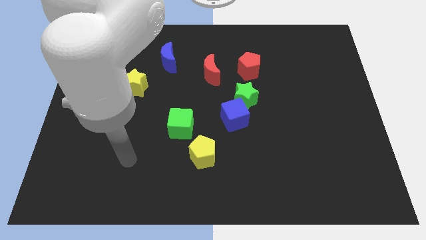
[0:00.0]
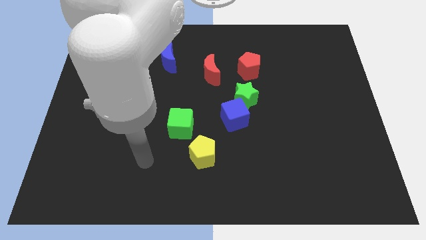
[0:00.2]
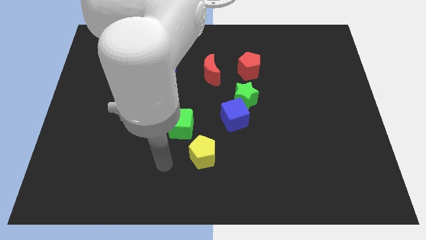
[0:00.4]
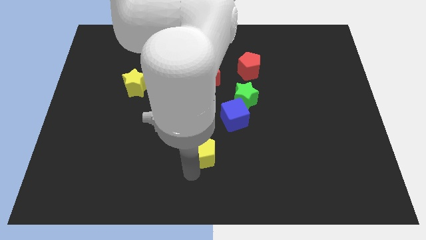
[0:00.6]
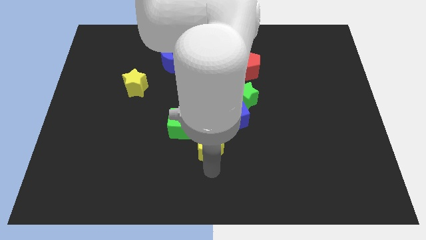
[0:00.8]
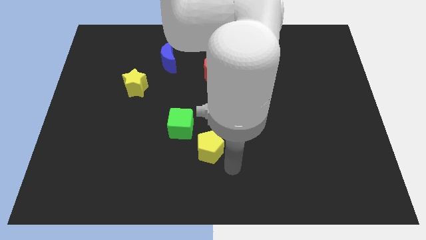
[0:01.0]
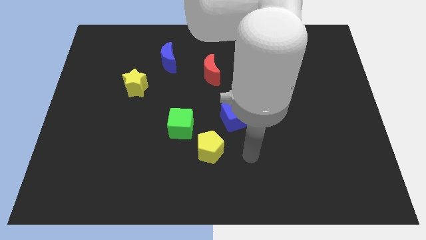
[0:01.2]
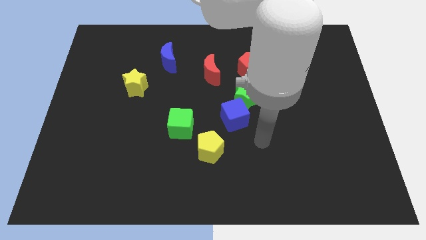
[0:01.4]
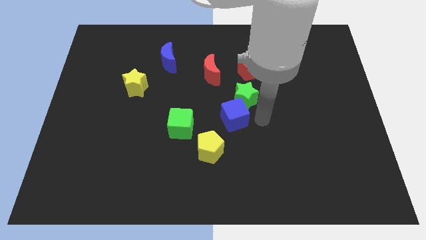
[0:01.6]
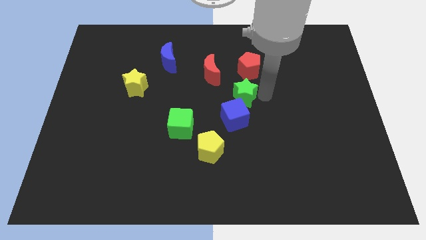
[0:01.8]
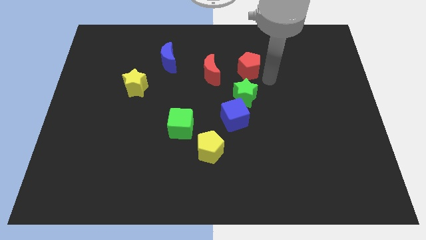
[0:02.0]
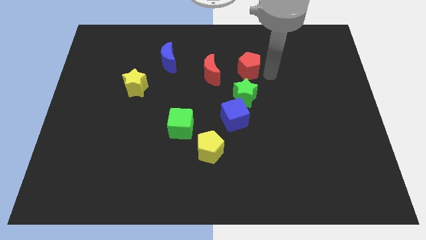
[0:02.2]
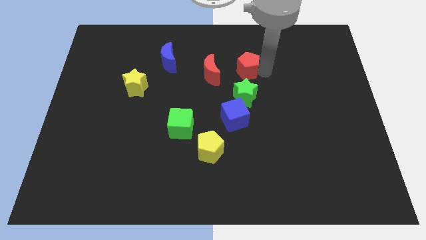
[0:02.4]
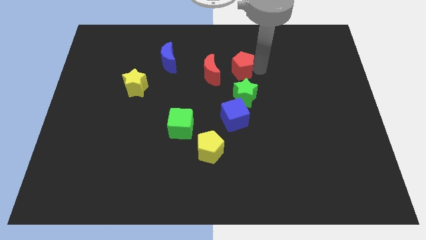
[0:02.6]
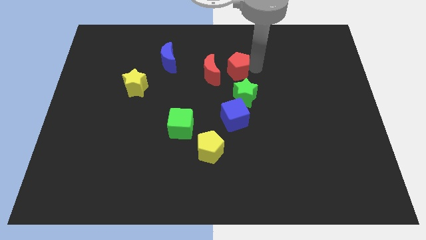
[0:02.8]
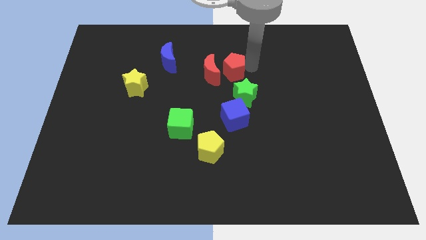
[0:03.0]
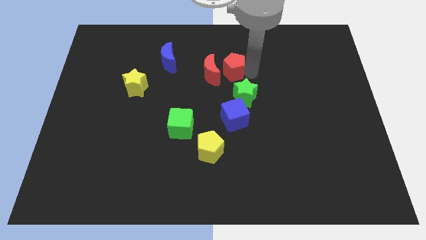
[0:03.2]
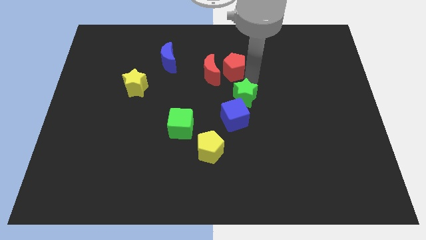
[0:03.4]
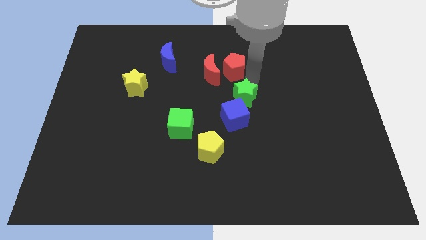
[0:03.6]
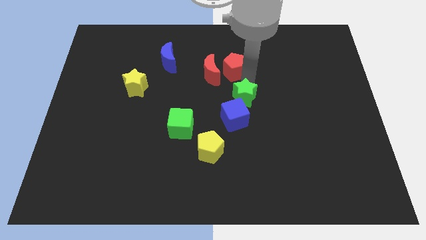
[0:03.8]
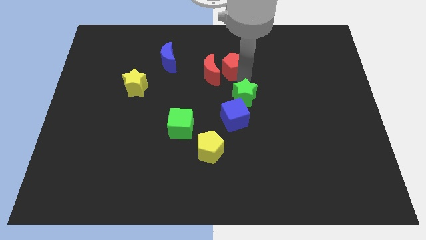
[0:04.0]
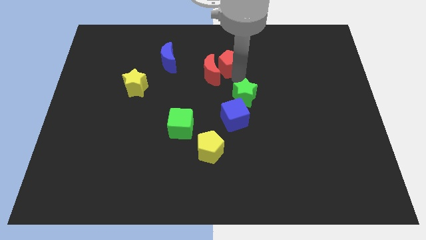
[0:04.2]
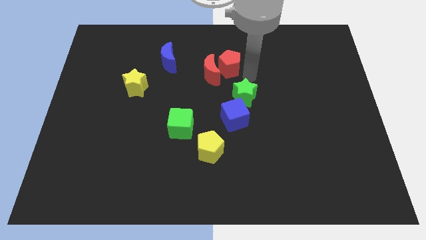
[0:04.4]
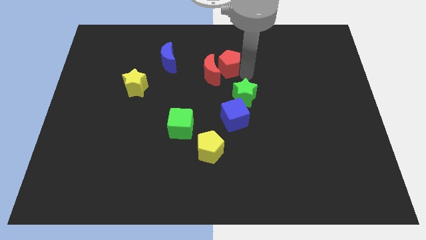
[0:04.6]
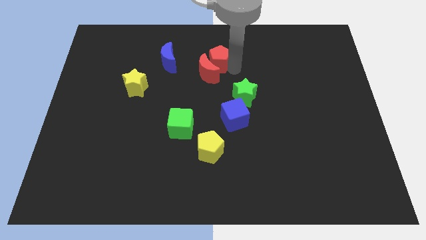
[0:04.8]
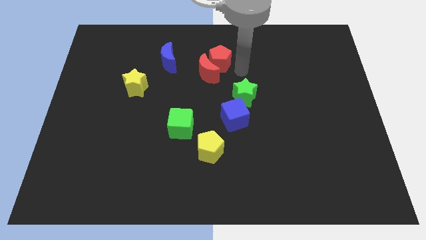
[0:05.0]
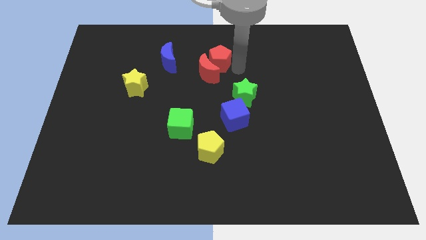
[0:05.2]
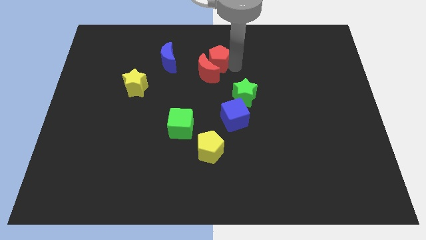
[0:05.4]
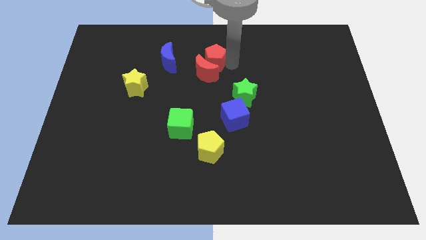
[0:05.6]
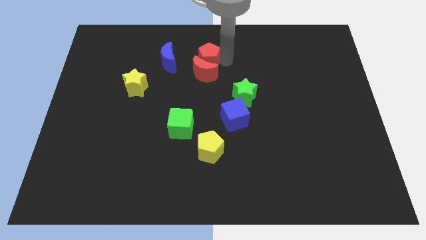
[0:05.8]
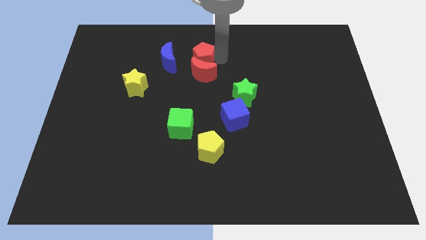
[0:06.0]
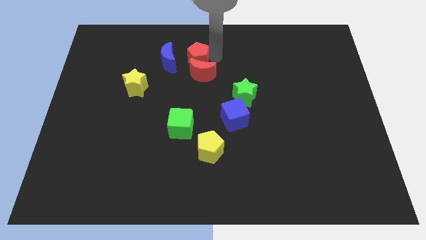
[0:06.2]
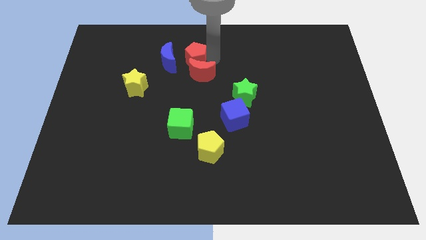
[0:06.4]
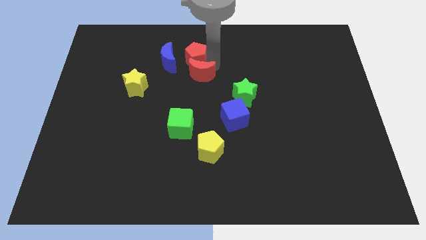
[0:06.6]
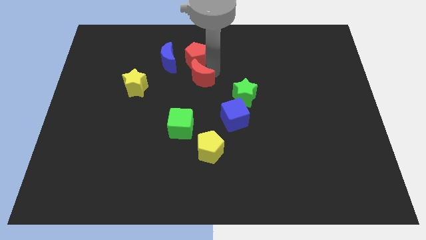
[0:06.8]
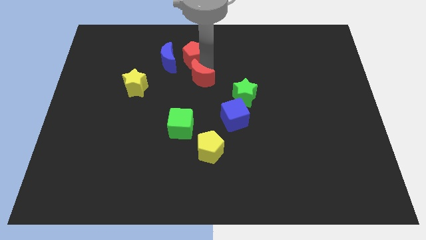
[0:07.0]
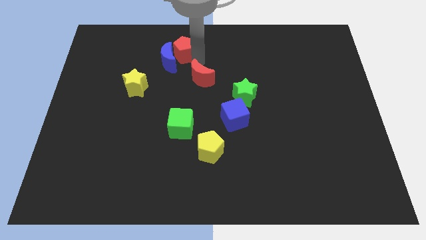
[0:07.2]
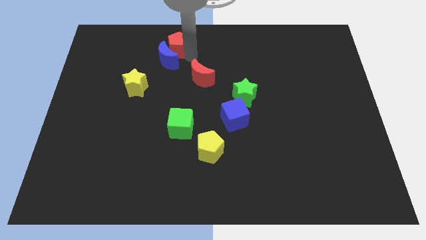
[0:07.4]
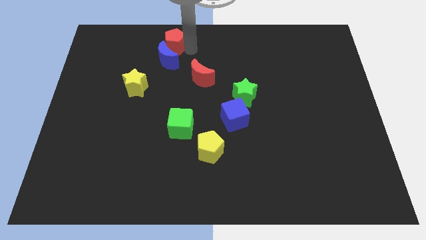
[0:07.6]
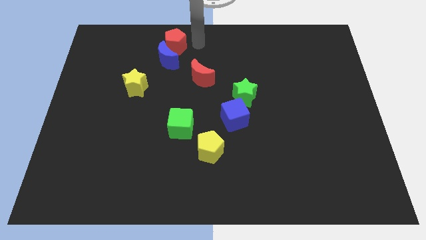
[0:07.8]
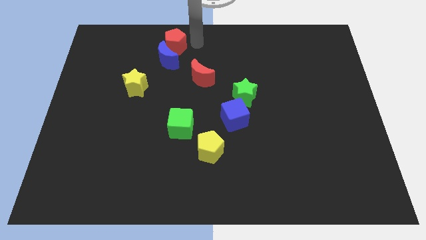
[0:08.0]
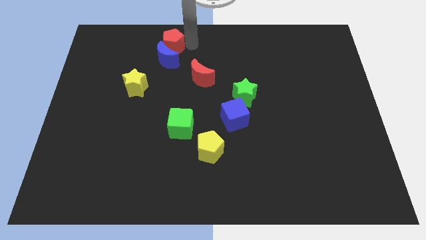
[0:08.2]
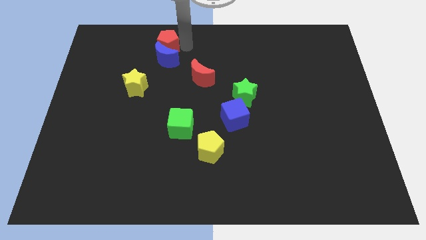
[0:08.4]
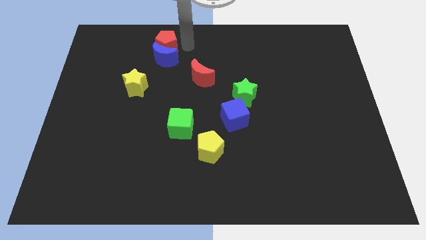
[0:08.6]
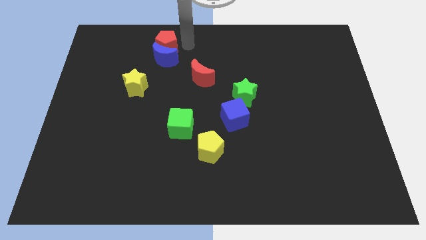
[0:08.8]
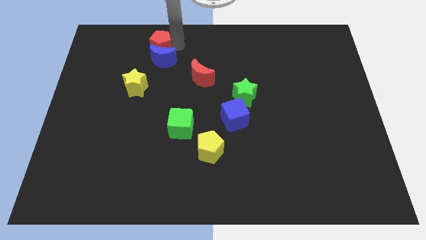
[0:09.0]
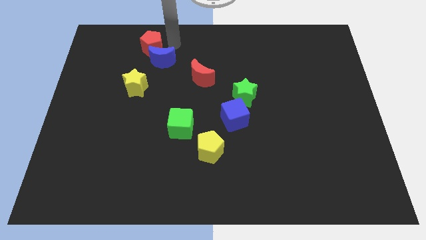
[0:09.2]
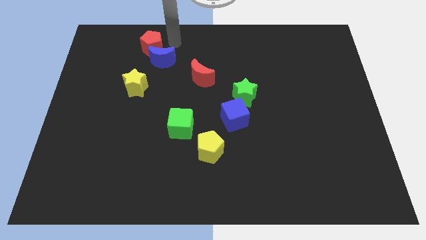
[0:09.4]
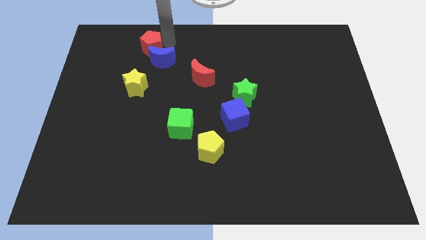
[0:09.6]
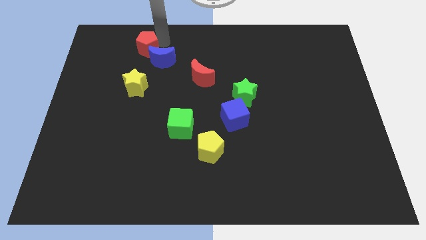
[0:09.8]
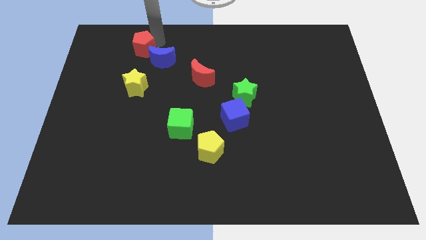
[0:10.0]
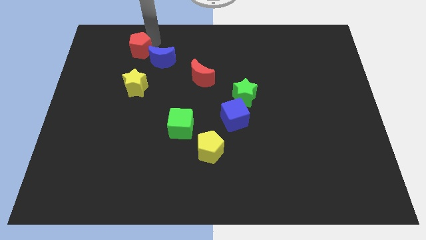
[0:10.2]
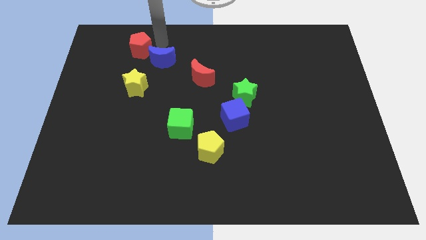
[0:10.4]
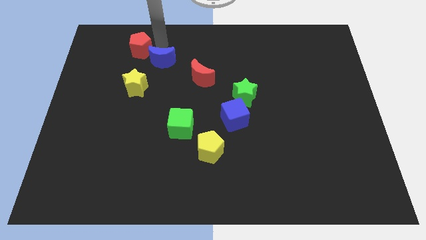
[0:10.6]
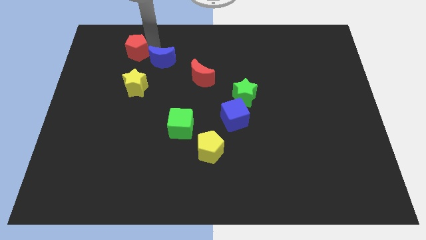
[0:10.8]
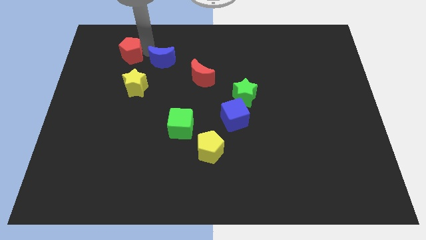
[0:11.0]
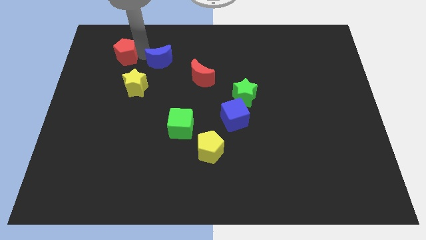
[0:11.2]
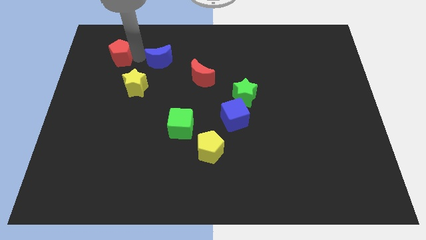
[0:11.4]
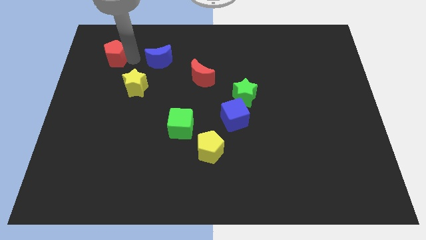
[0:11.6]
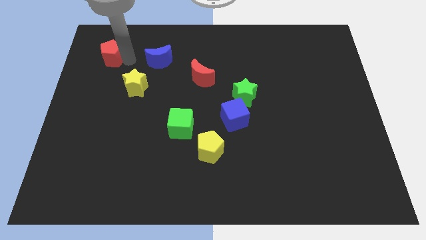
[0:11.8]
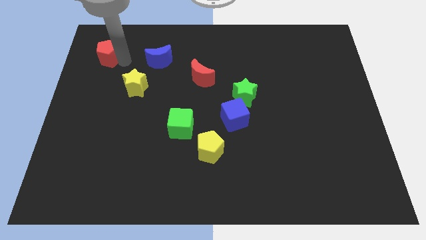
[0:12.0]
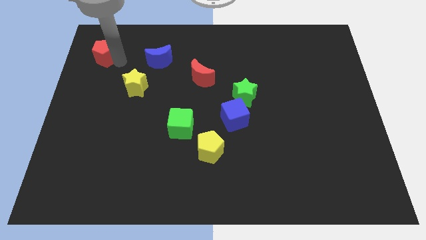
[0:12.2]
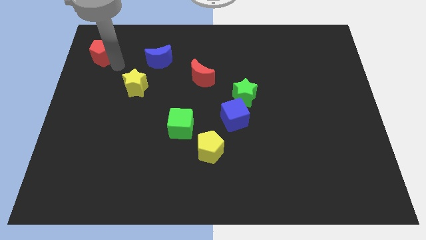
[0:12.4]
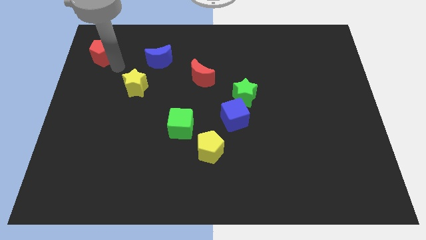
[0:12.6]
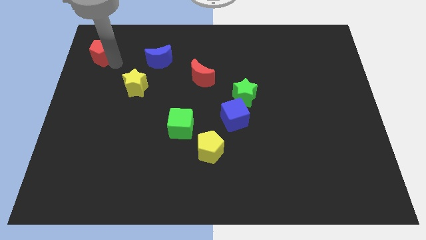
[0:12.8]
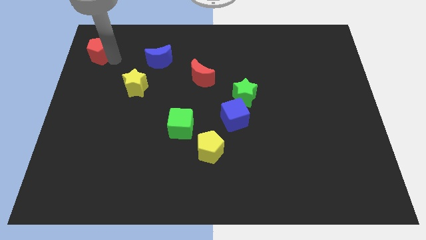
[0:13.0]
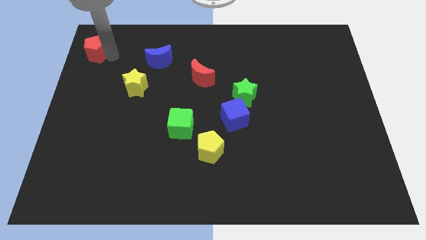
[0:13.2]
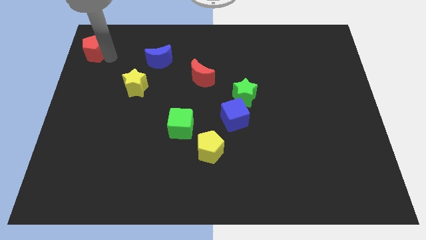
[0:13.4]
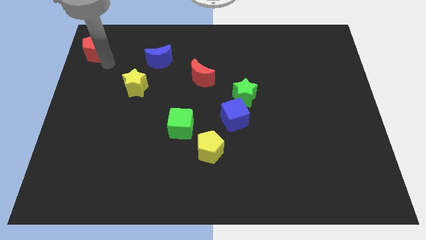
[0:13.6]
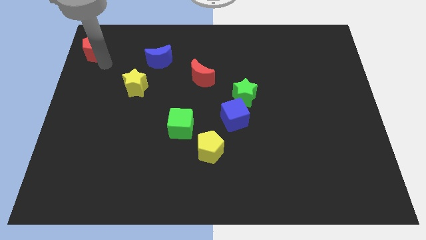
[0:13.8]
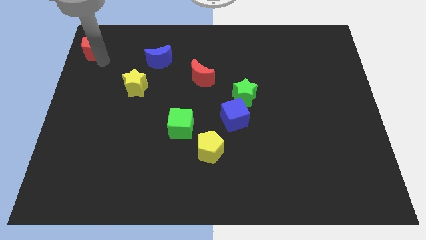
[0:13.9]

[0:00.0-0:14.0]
move the red pentagon to the top left of the board
